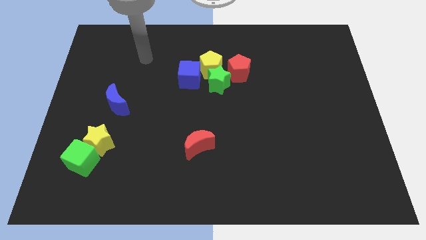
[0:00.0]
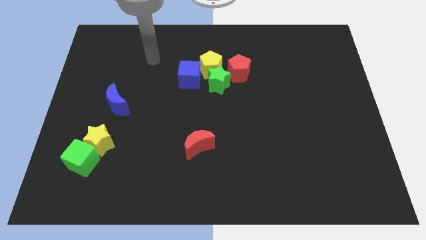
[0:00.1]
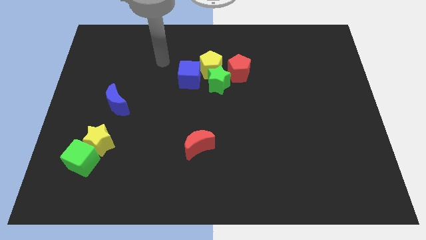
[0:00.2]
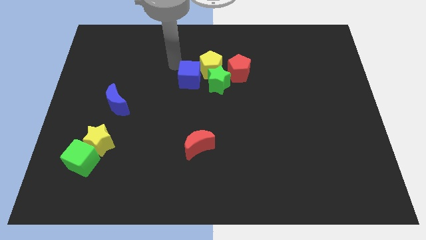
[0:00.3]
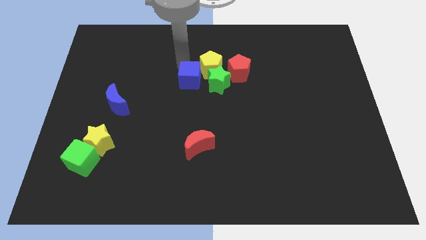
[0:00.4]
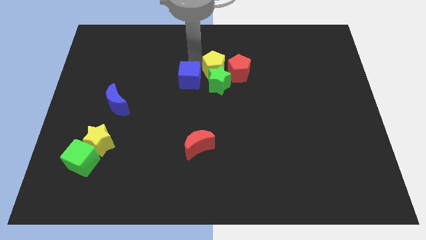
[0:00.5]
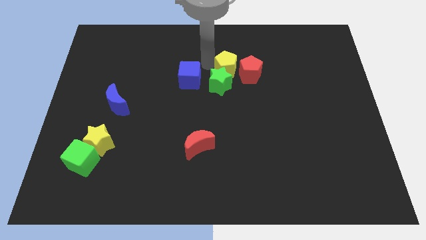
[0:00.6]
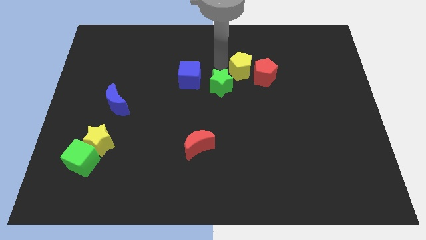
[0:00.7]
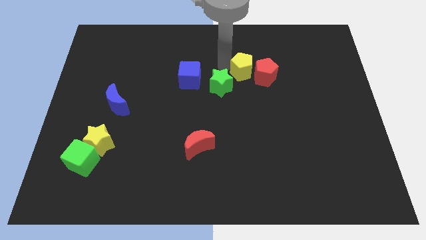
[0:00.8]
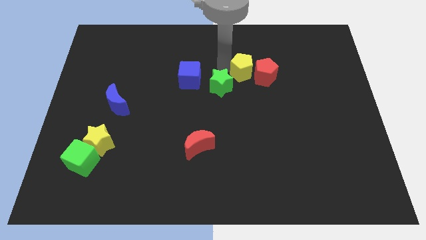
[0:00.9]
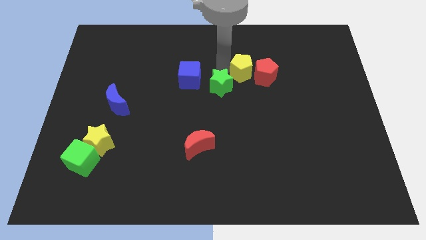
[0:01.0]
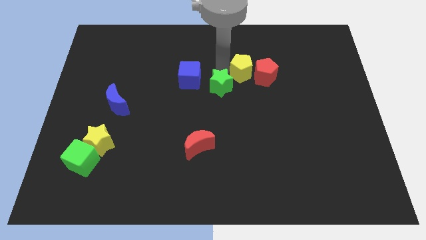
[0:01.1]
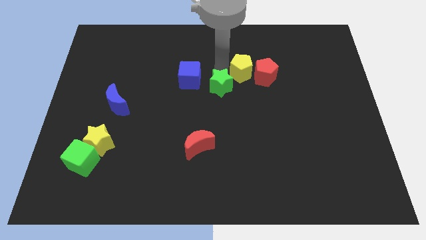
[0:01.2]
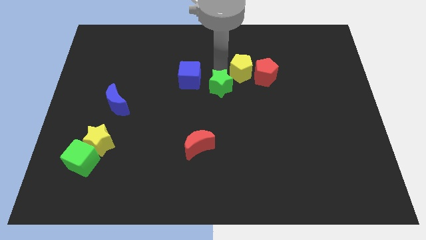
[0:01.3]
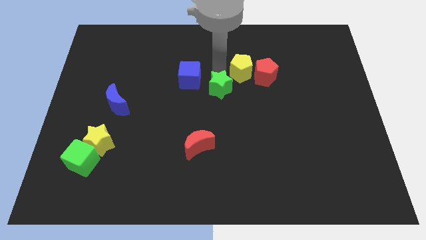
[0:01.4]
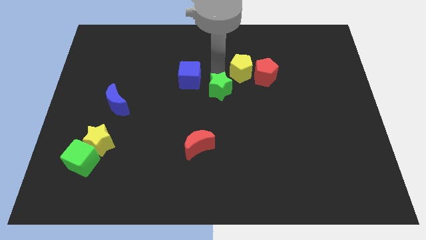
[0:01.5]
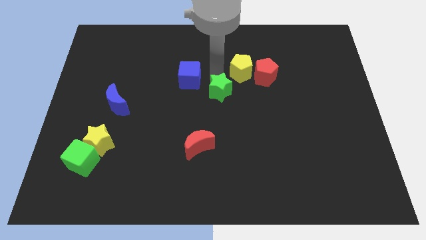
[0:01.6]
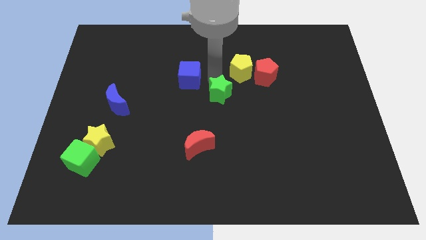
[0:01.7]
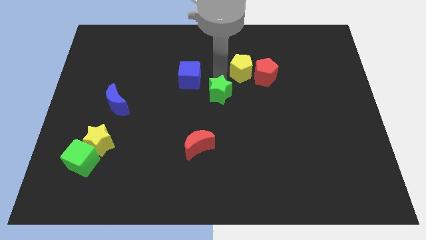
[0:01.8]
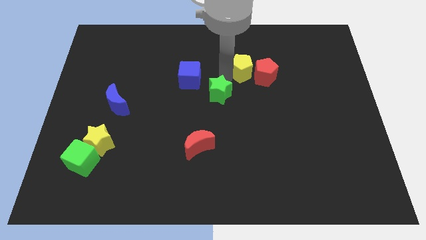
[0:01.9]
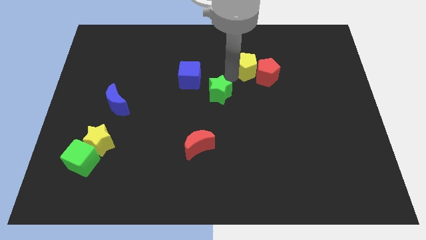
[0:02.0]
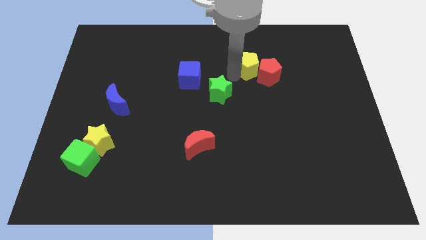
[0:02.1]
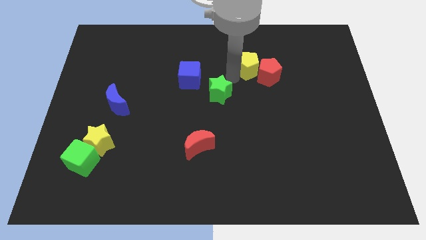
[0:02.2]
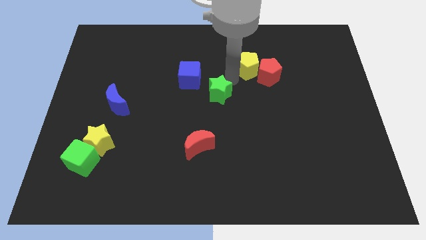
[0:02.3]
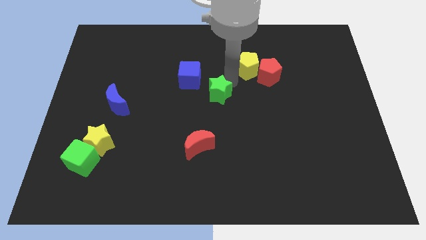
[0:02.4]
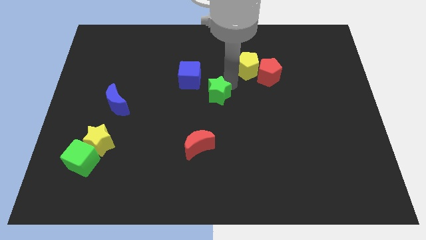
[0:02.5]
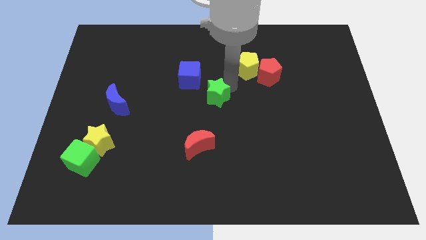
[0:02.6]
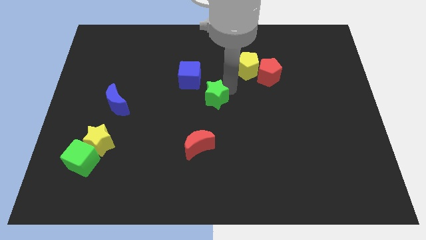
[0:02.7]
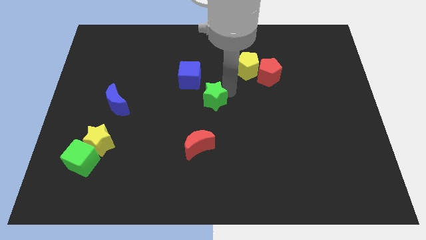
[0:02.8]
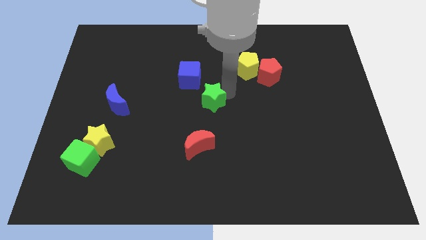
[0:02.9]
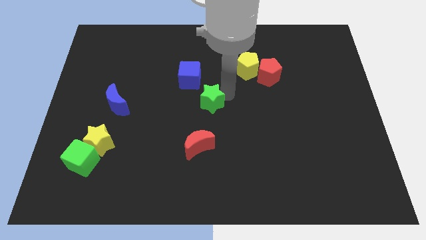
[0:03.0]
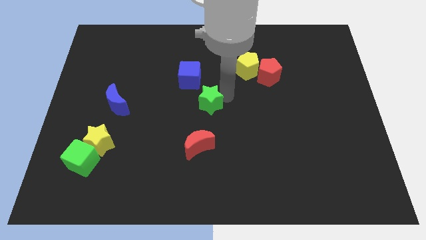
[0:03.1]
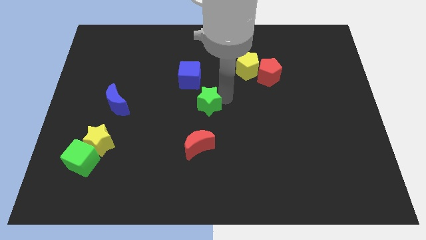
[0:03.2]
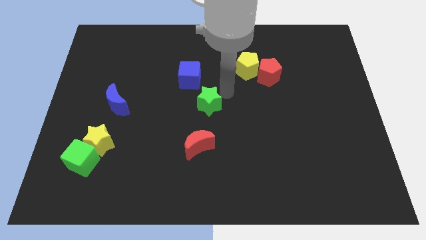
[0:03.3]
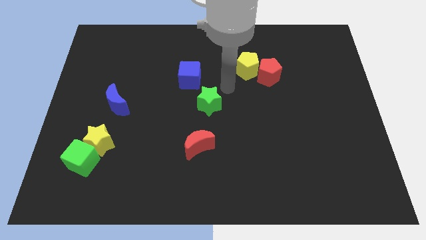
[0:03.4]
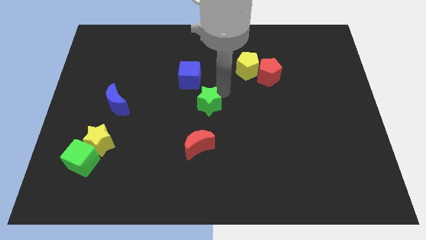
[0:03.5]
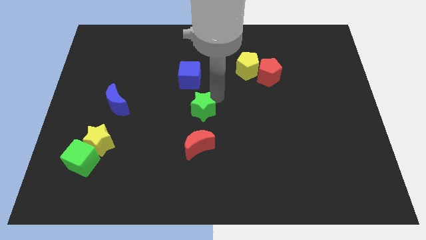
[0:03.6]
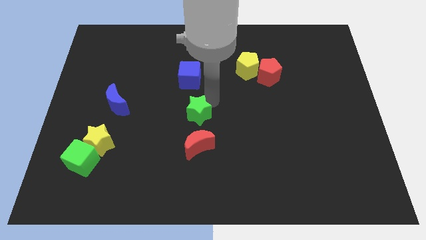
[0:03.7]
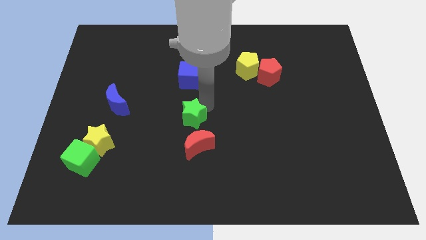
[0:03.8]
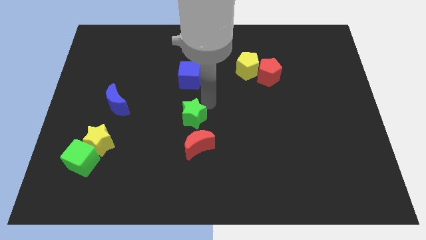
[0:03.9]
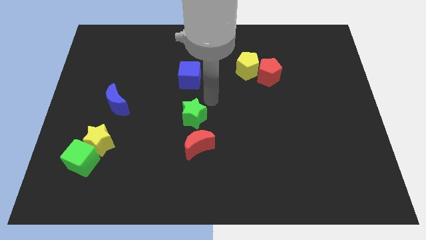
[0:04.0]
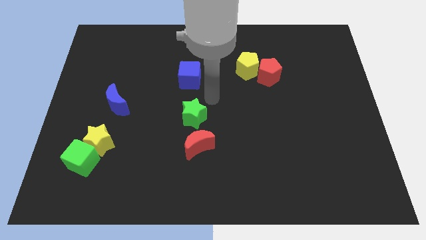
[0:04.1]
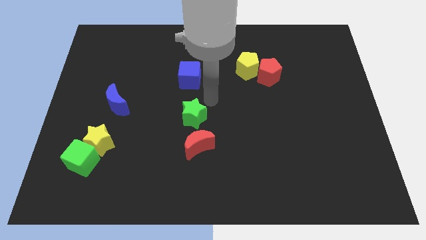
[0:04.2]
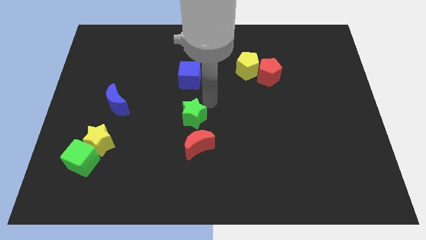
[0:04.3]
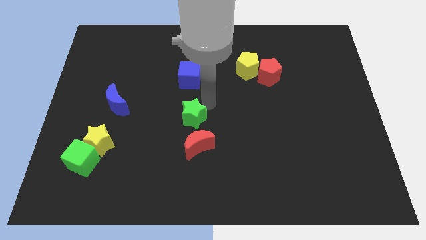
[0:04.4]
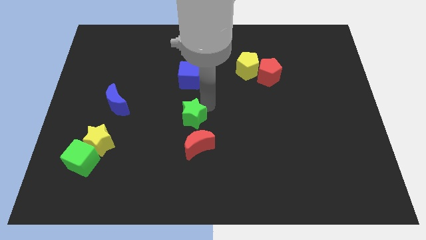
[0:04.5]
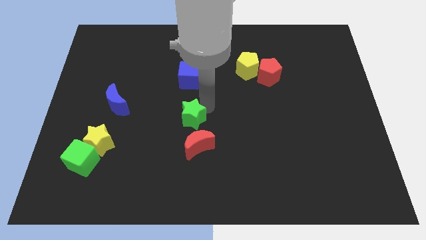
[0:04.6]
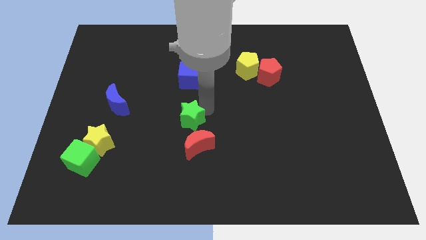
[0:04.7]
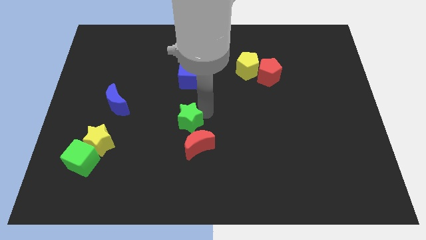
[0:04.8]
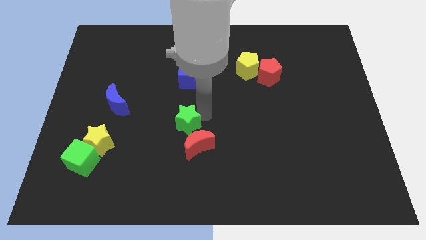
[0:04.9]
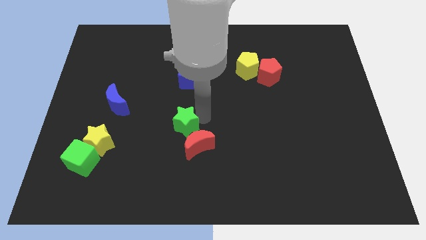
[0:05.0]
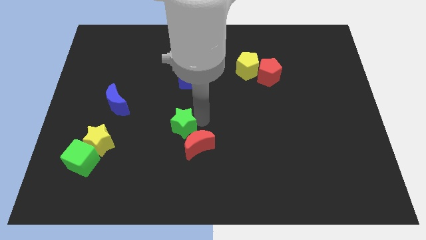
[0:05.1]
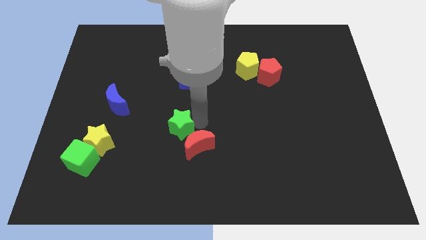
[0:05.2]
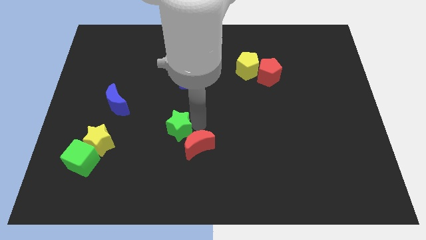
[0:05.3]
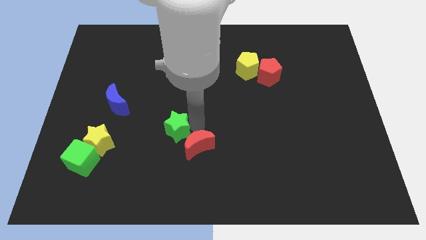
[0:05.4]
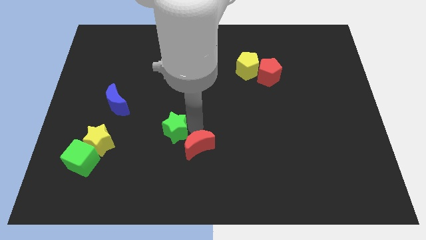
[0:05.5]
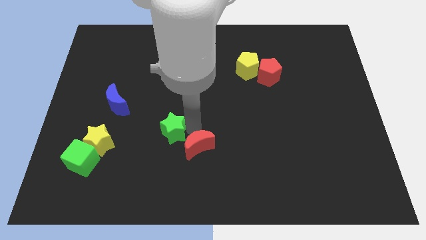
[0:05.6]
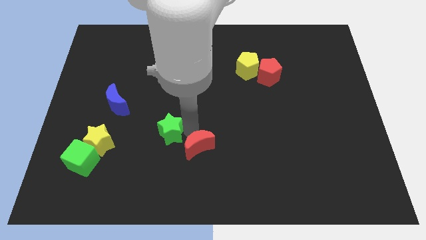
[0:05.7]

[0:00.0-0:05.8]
move the green star right of the yellow star

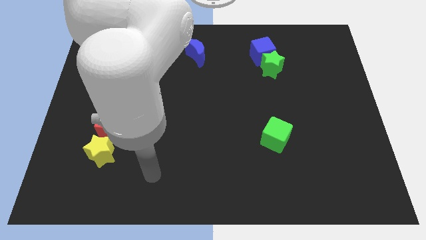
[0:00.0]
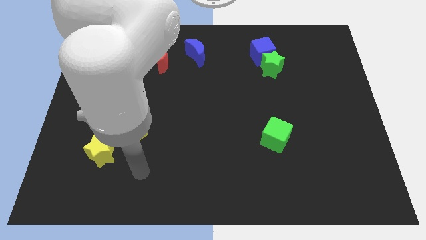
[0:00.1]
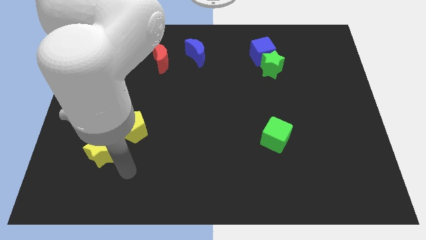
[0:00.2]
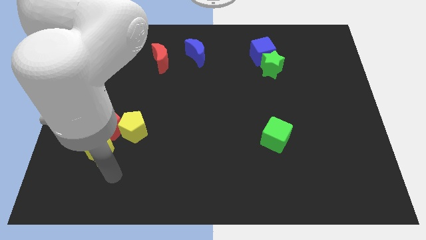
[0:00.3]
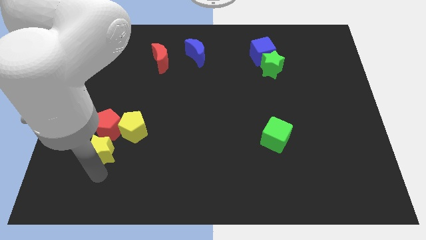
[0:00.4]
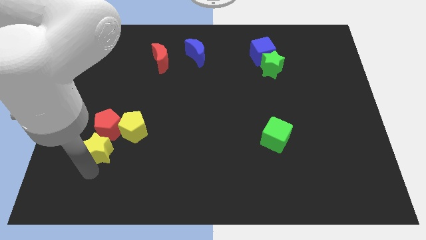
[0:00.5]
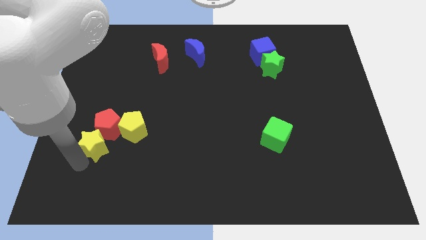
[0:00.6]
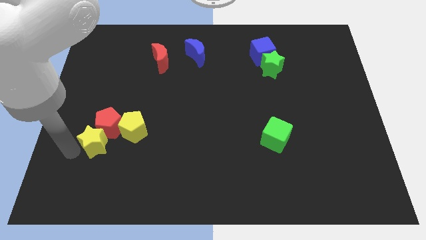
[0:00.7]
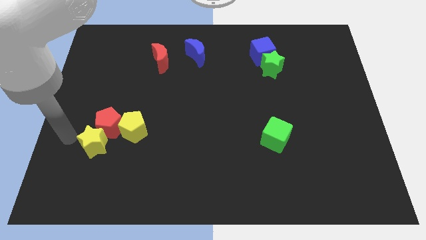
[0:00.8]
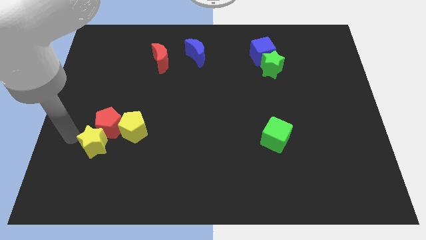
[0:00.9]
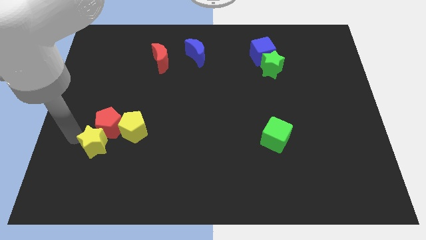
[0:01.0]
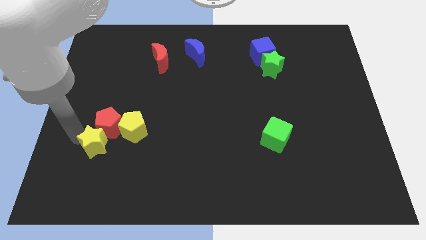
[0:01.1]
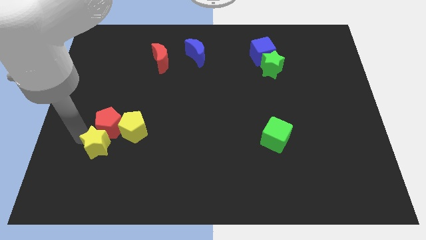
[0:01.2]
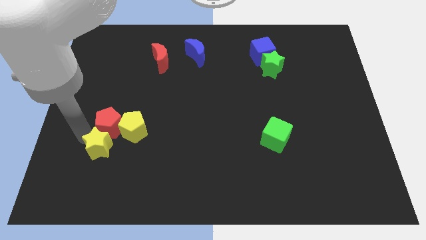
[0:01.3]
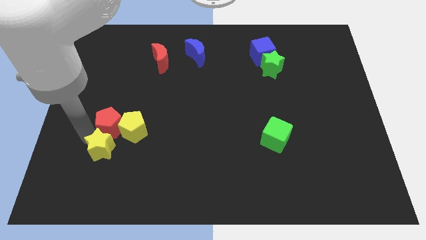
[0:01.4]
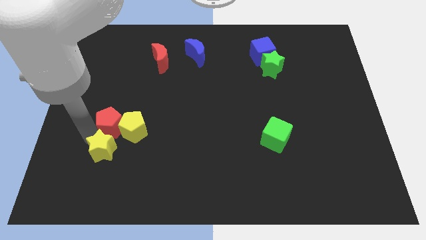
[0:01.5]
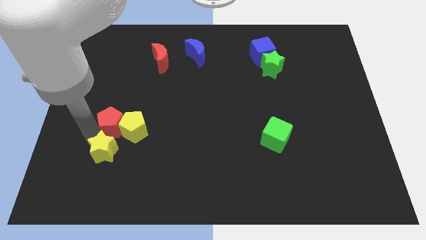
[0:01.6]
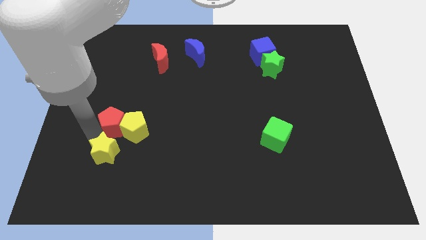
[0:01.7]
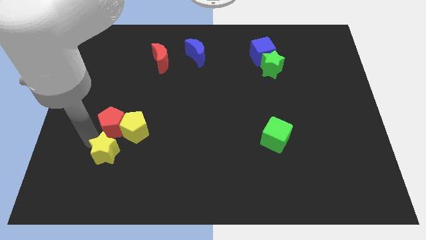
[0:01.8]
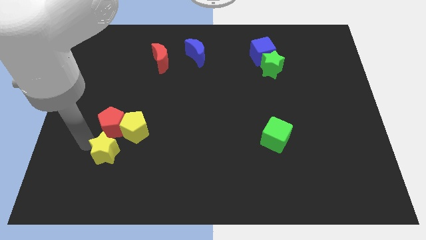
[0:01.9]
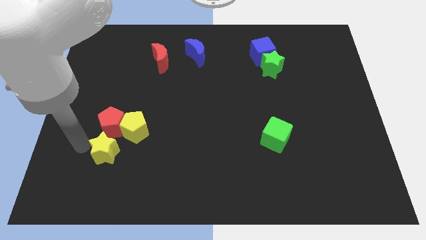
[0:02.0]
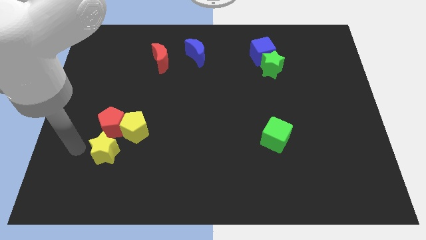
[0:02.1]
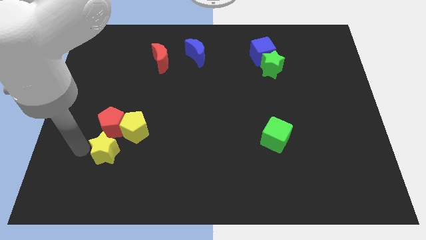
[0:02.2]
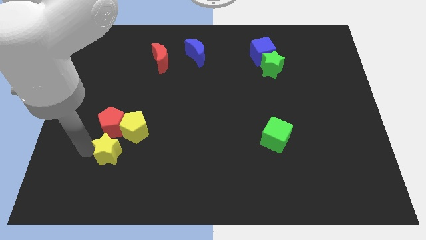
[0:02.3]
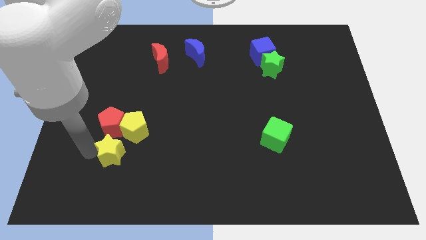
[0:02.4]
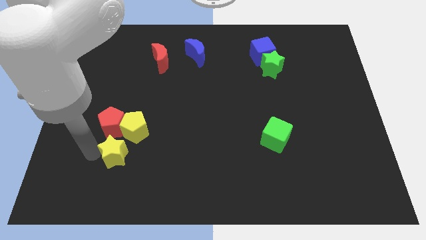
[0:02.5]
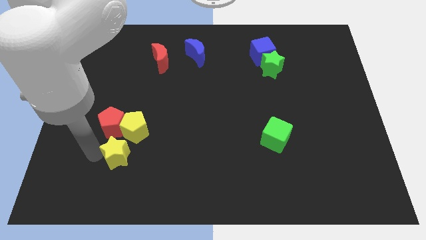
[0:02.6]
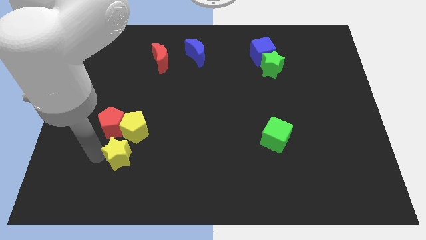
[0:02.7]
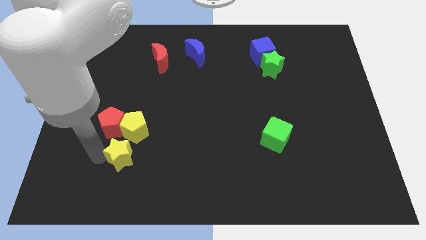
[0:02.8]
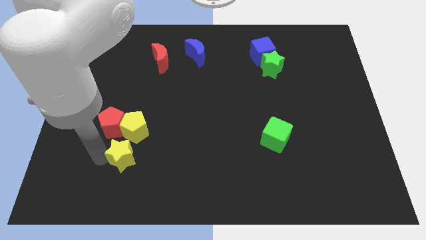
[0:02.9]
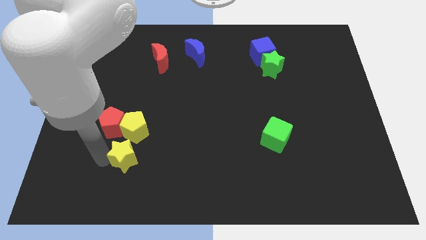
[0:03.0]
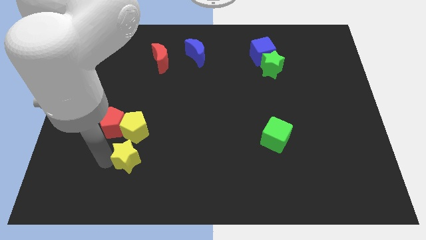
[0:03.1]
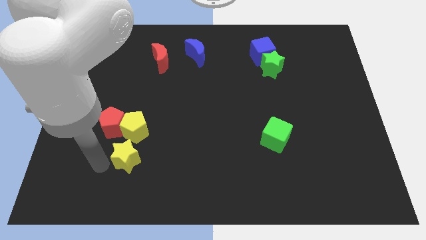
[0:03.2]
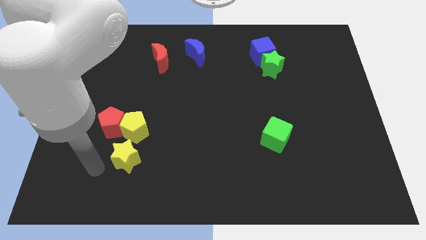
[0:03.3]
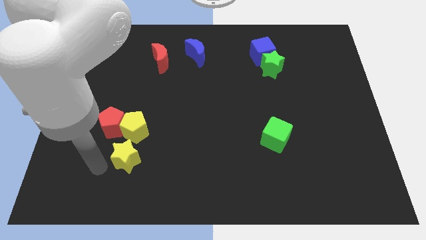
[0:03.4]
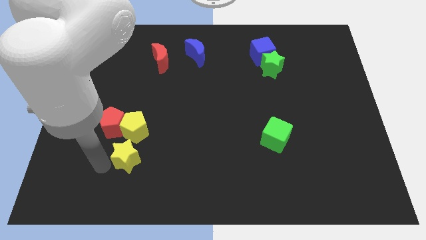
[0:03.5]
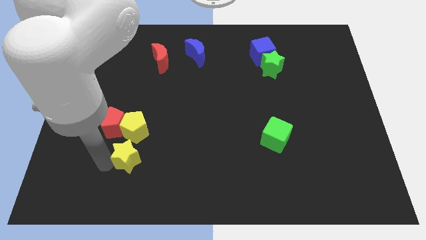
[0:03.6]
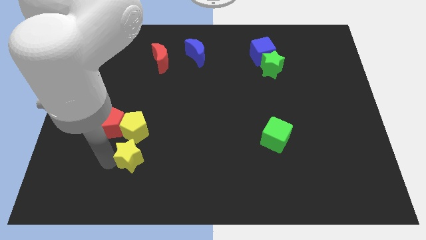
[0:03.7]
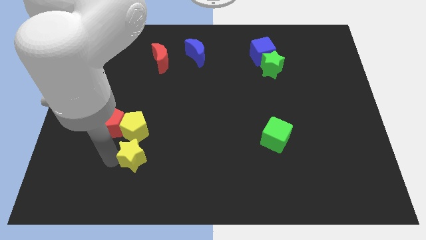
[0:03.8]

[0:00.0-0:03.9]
move the yellow star to the bottom right of the yellow pentagon
